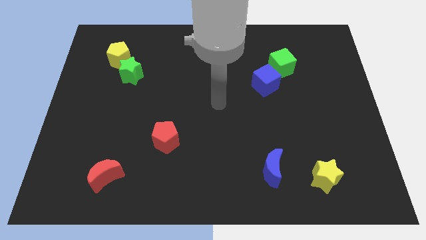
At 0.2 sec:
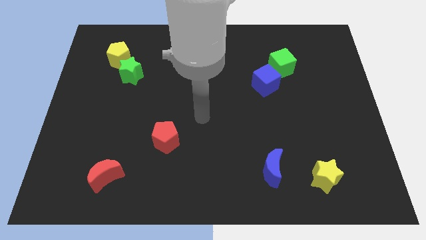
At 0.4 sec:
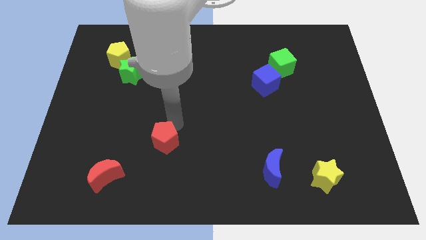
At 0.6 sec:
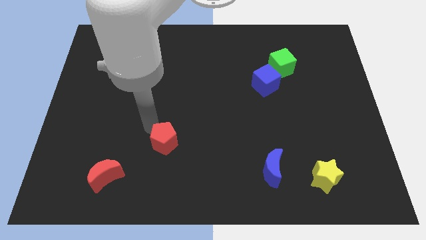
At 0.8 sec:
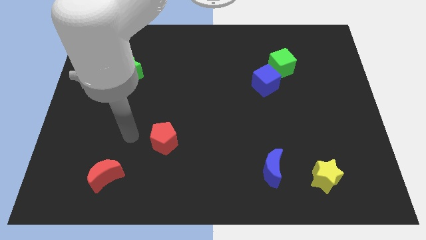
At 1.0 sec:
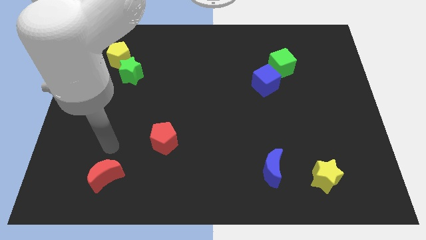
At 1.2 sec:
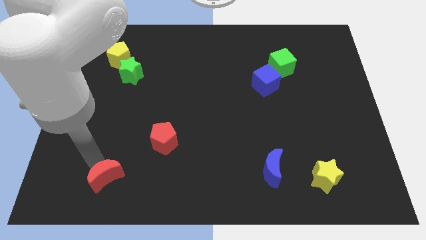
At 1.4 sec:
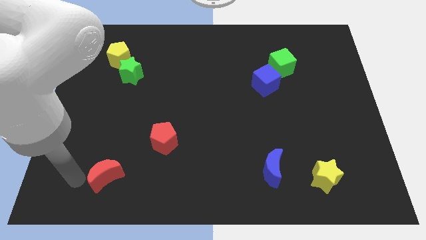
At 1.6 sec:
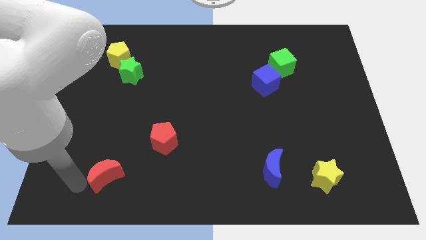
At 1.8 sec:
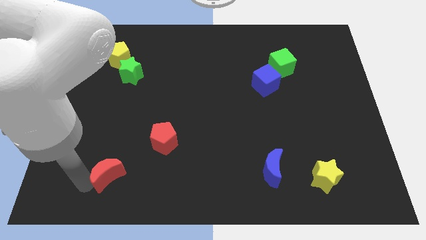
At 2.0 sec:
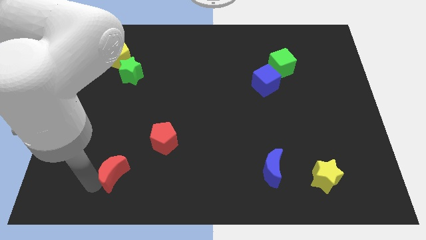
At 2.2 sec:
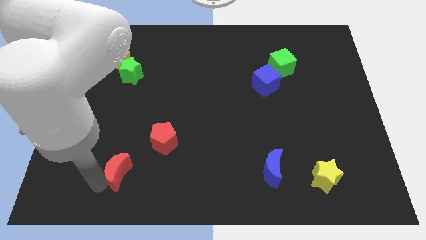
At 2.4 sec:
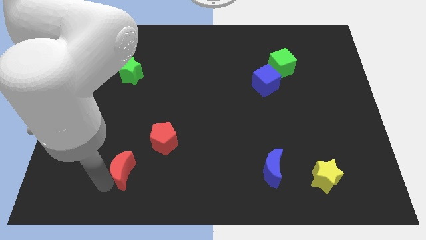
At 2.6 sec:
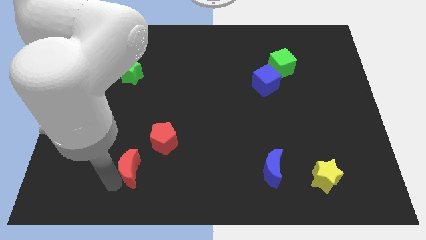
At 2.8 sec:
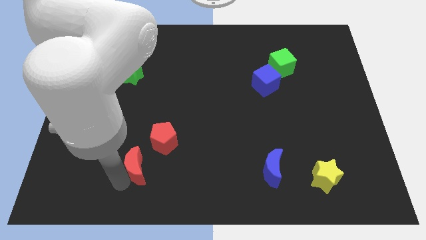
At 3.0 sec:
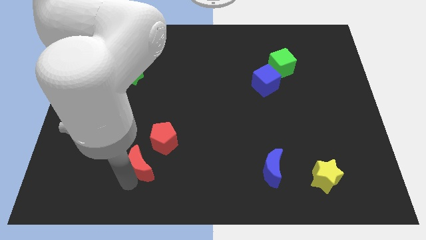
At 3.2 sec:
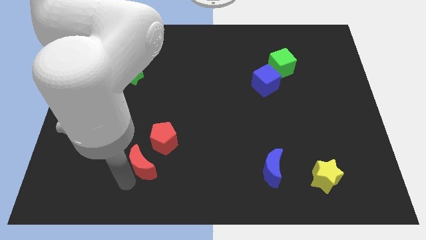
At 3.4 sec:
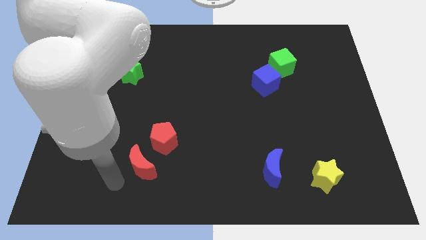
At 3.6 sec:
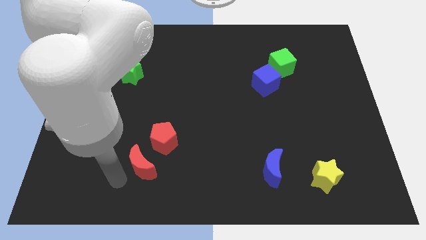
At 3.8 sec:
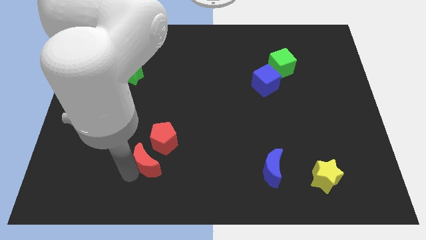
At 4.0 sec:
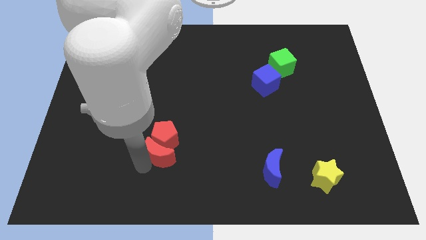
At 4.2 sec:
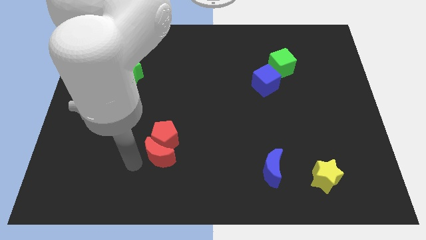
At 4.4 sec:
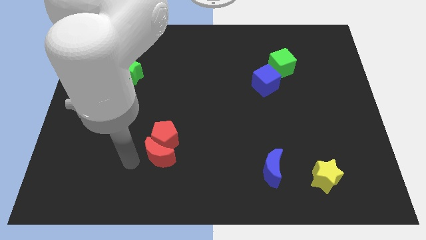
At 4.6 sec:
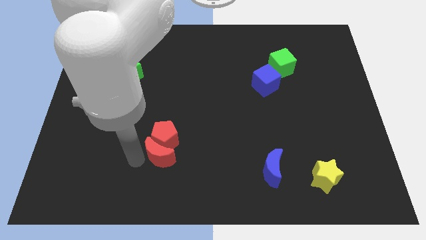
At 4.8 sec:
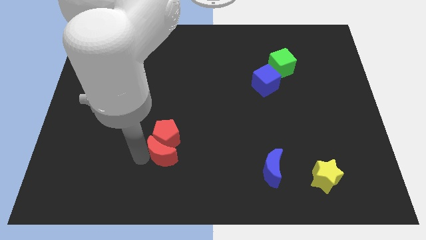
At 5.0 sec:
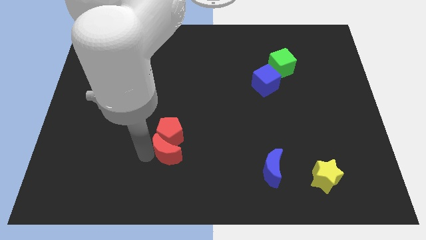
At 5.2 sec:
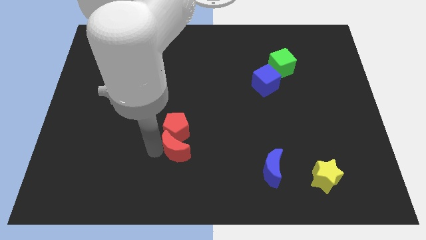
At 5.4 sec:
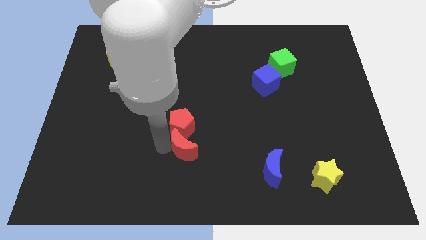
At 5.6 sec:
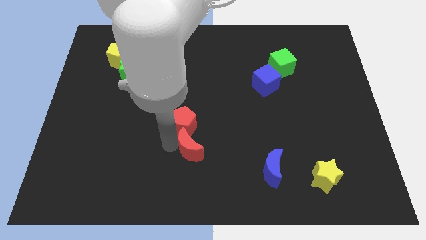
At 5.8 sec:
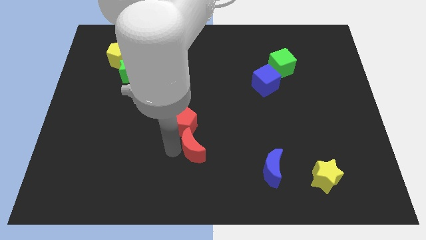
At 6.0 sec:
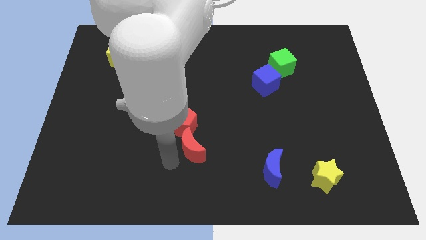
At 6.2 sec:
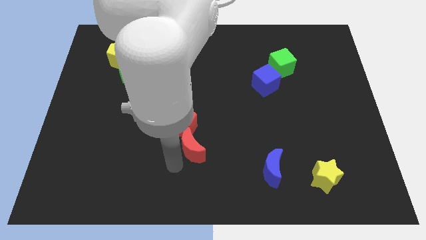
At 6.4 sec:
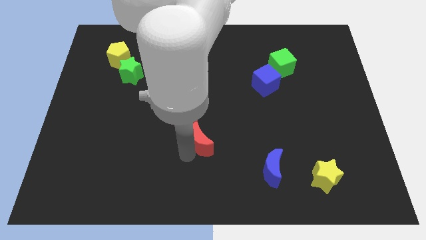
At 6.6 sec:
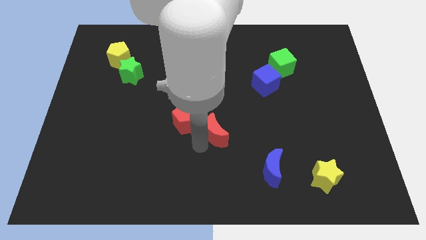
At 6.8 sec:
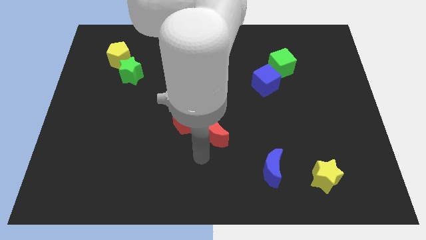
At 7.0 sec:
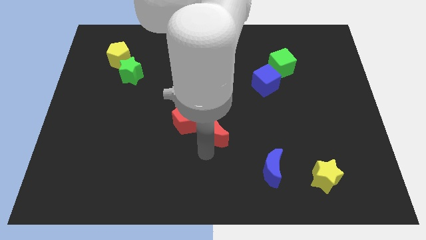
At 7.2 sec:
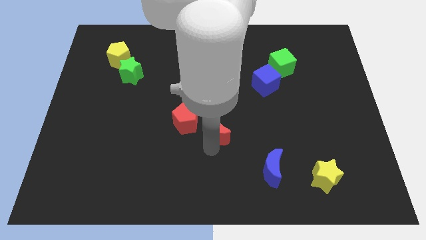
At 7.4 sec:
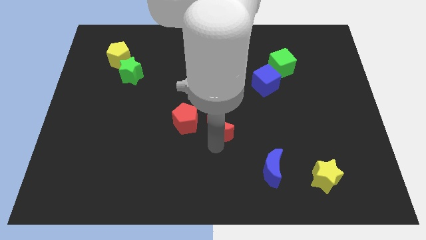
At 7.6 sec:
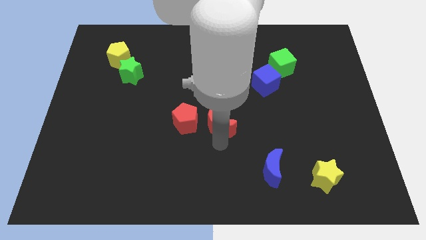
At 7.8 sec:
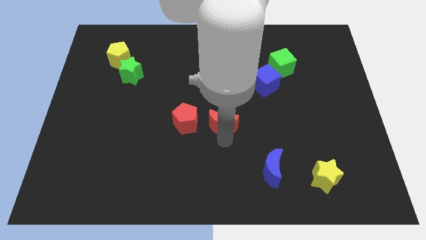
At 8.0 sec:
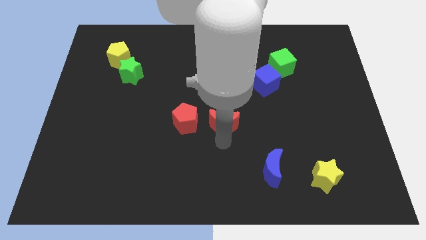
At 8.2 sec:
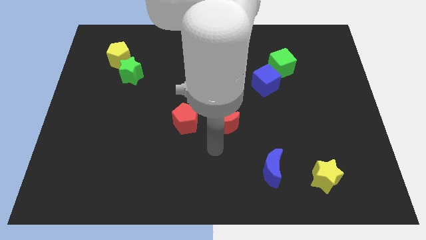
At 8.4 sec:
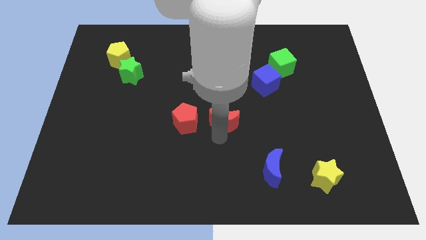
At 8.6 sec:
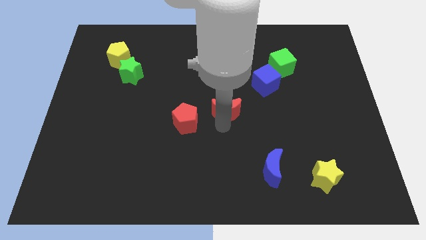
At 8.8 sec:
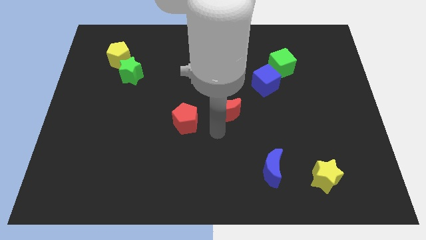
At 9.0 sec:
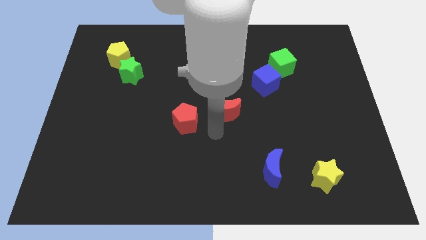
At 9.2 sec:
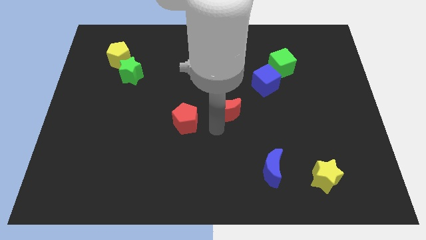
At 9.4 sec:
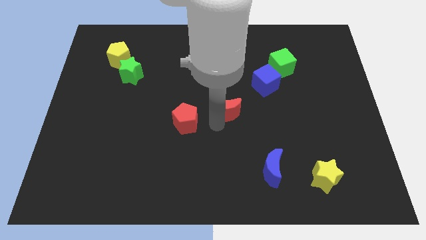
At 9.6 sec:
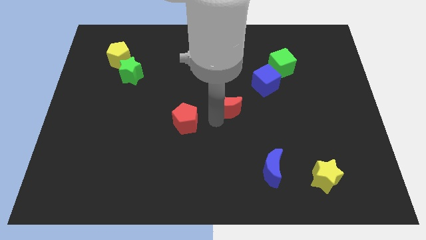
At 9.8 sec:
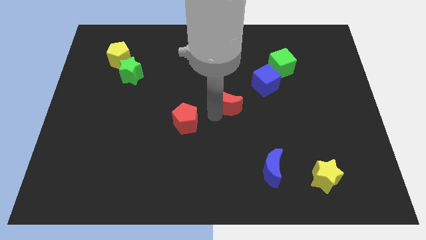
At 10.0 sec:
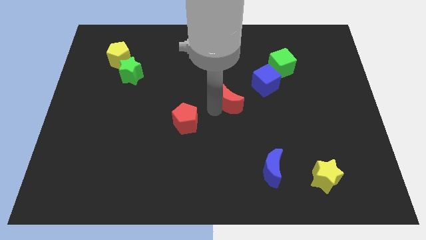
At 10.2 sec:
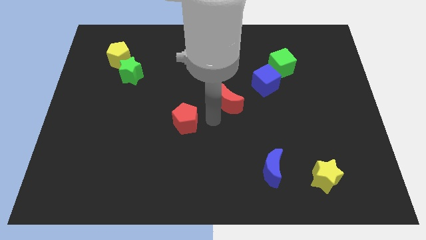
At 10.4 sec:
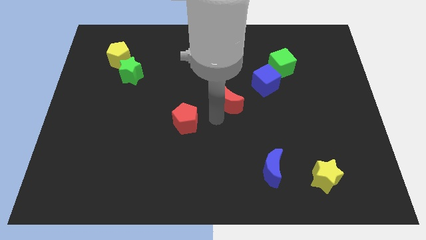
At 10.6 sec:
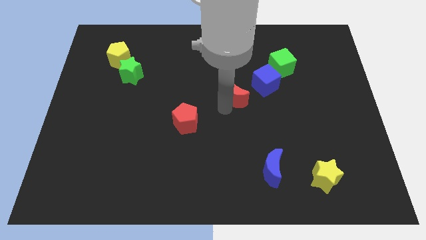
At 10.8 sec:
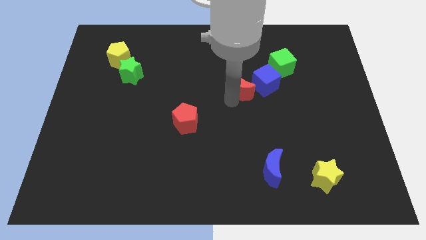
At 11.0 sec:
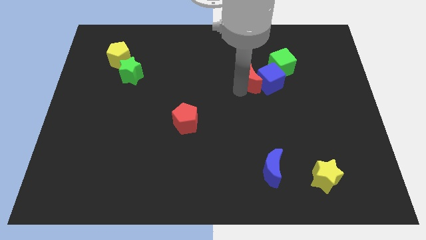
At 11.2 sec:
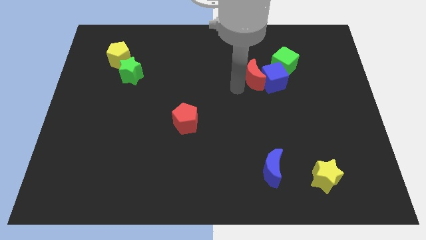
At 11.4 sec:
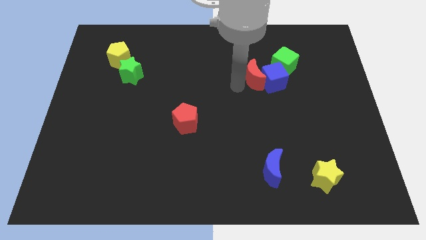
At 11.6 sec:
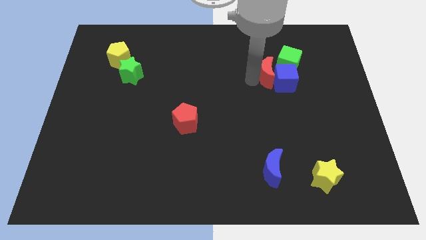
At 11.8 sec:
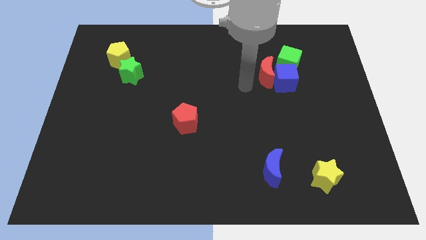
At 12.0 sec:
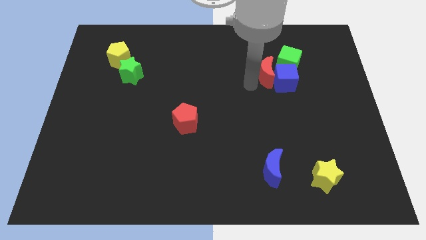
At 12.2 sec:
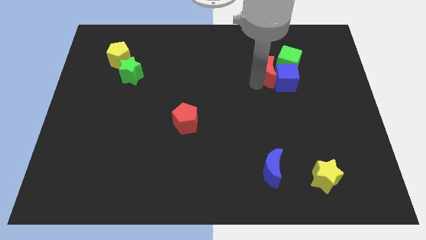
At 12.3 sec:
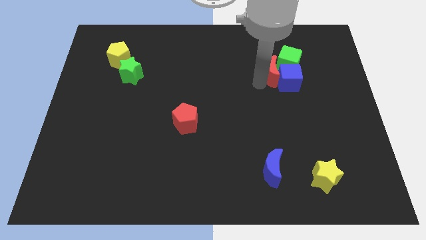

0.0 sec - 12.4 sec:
push the red moon close to the green cube
